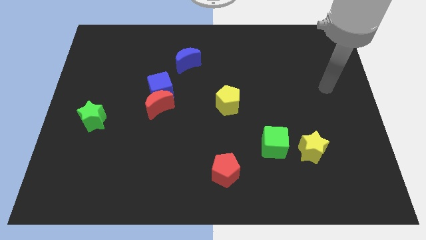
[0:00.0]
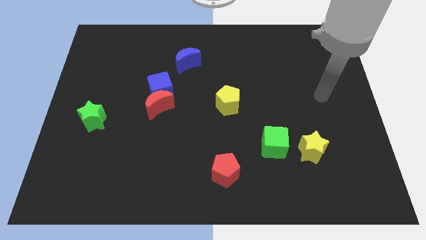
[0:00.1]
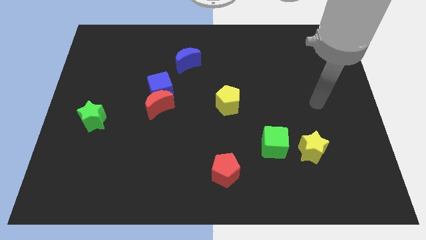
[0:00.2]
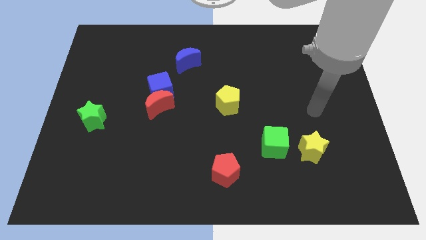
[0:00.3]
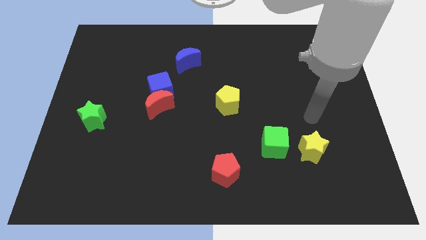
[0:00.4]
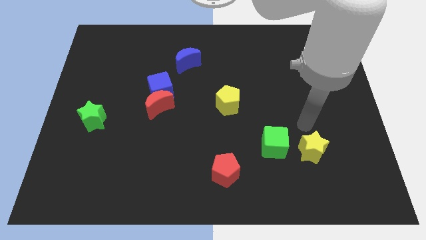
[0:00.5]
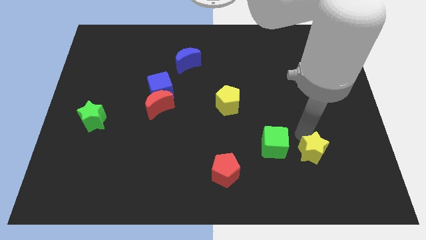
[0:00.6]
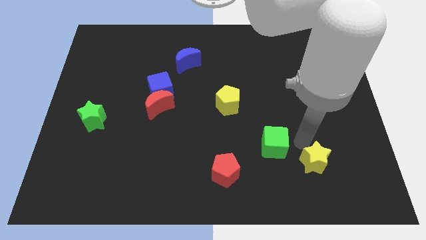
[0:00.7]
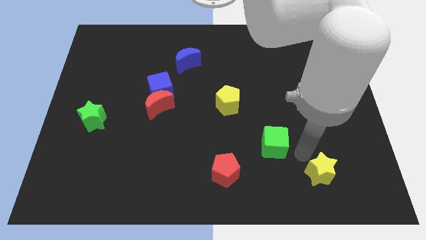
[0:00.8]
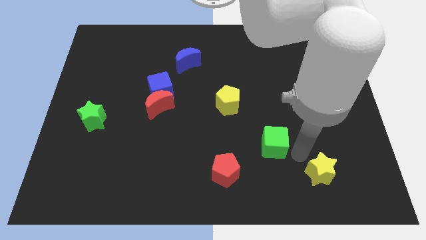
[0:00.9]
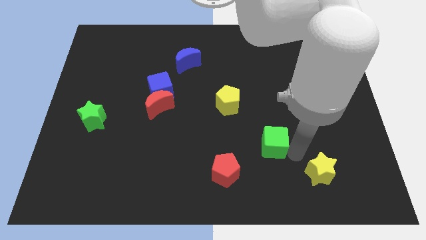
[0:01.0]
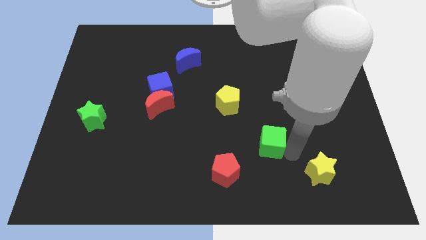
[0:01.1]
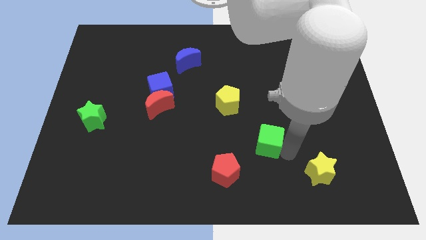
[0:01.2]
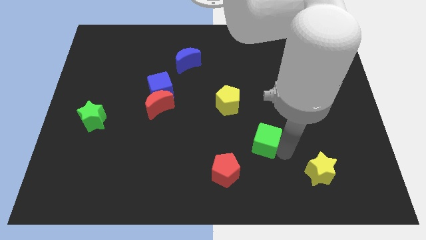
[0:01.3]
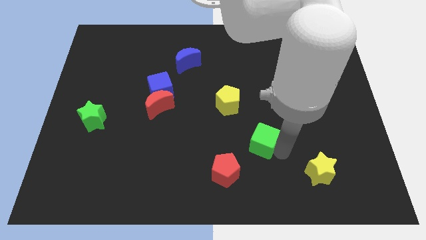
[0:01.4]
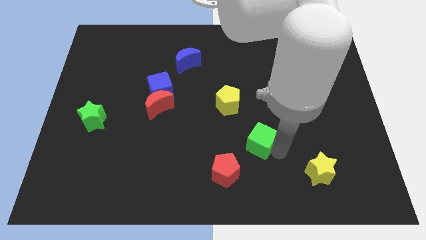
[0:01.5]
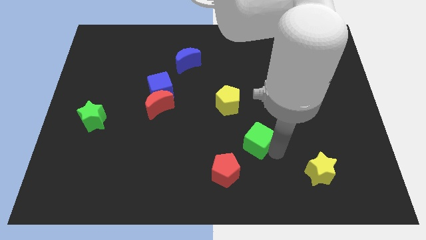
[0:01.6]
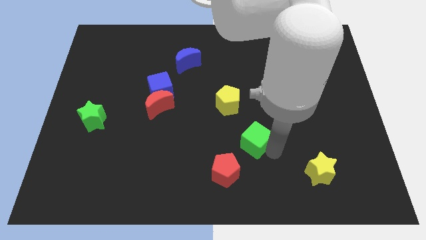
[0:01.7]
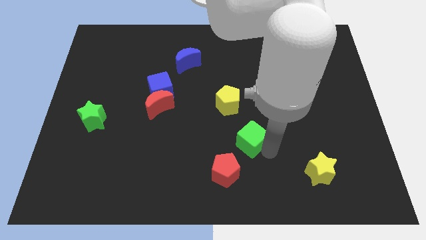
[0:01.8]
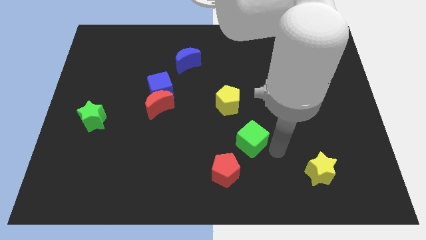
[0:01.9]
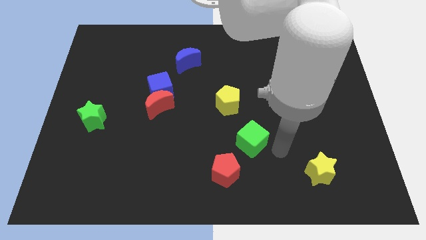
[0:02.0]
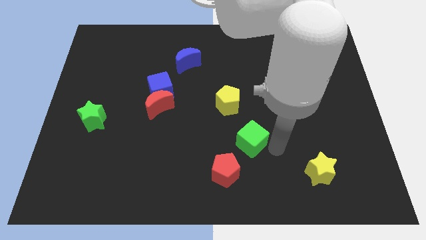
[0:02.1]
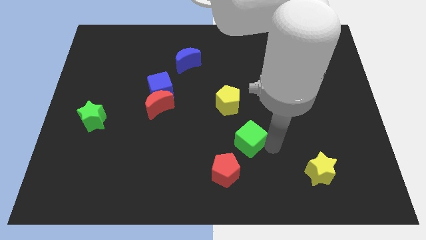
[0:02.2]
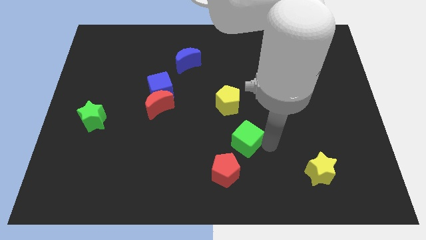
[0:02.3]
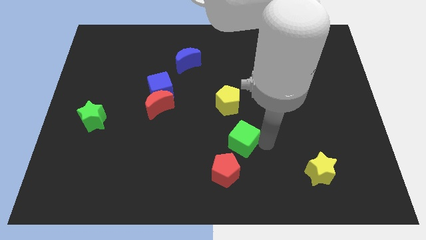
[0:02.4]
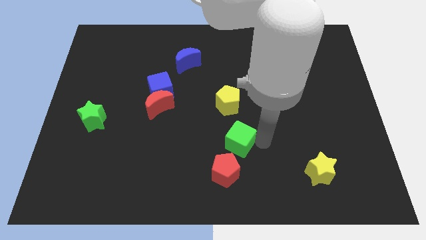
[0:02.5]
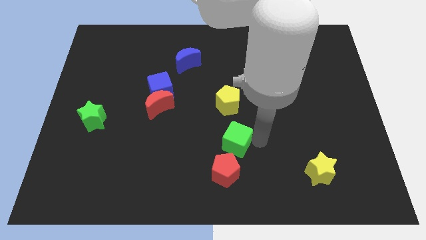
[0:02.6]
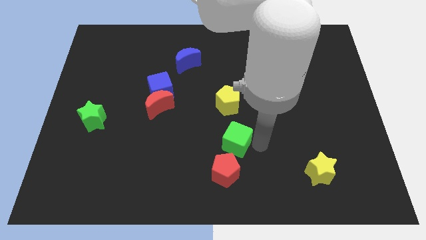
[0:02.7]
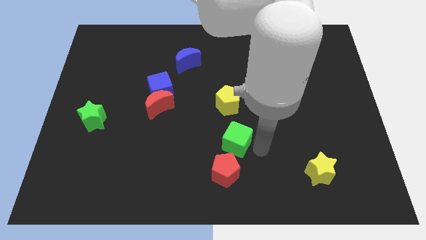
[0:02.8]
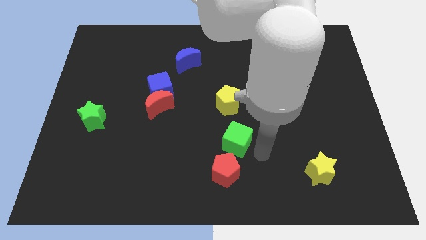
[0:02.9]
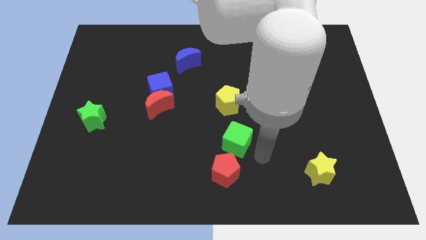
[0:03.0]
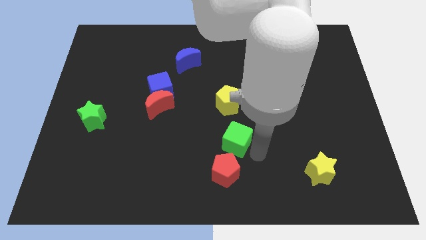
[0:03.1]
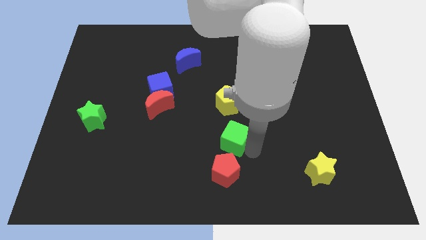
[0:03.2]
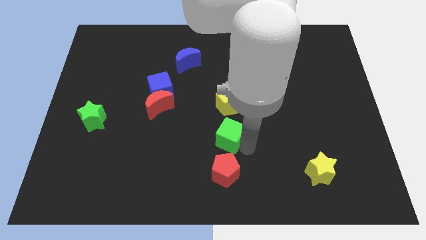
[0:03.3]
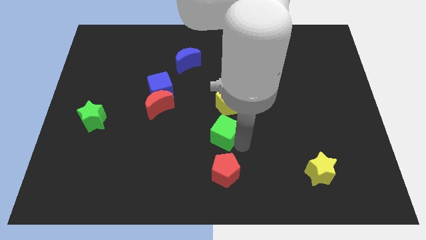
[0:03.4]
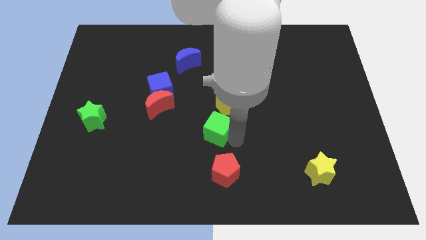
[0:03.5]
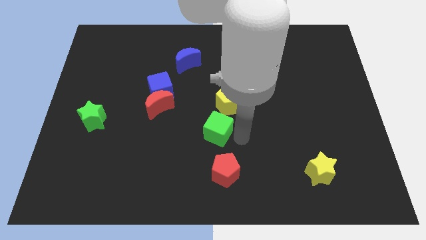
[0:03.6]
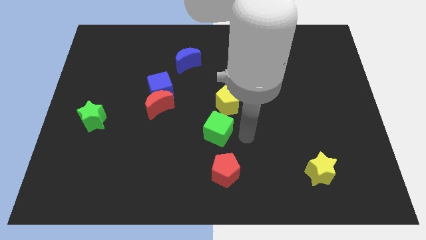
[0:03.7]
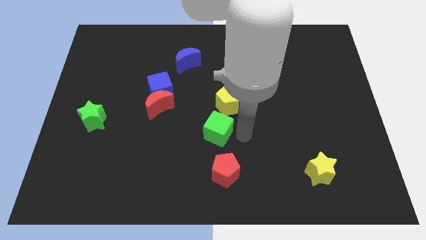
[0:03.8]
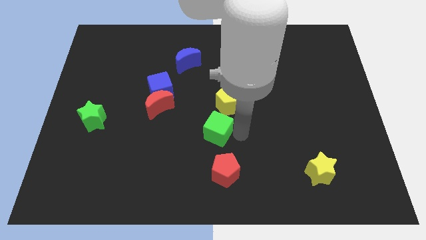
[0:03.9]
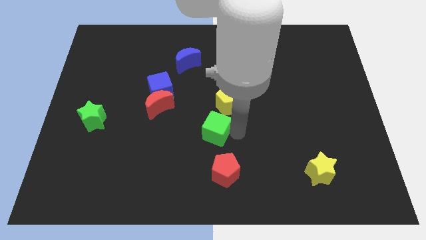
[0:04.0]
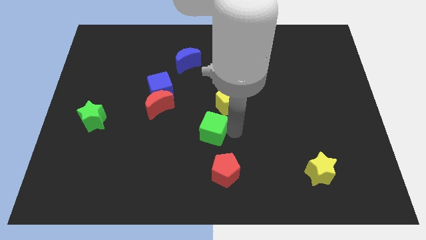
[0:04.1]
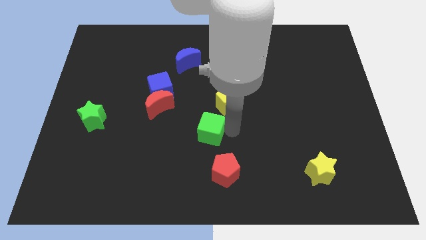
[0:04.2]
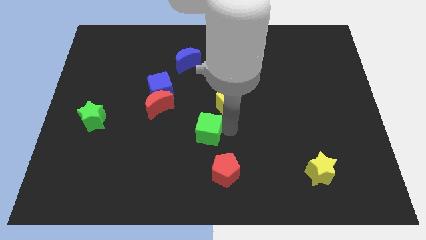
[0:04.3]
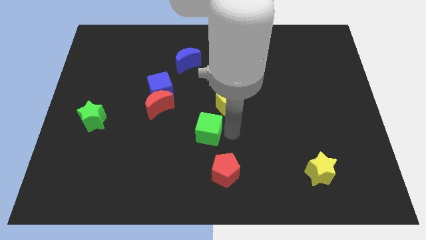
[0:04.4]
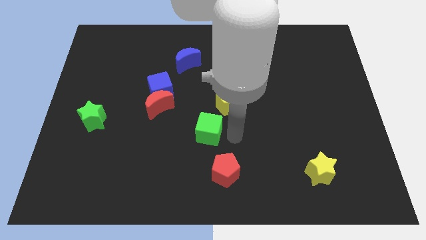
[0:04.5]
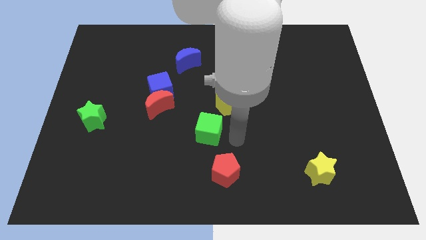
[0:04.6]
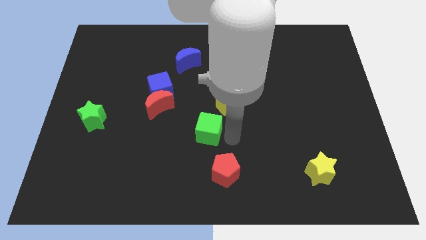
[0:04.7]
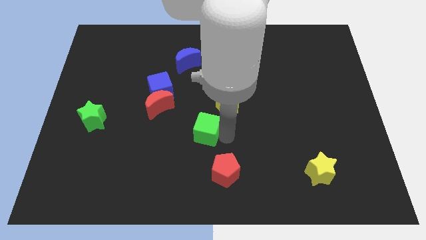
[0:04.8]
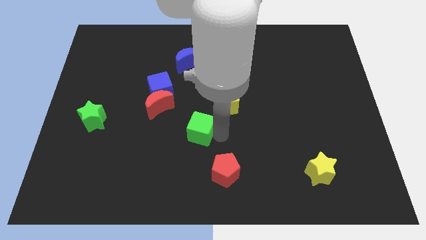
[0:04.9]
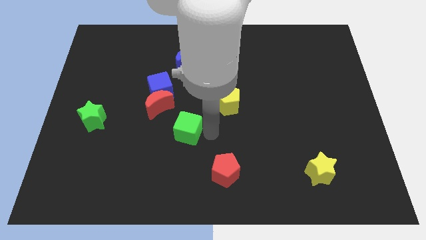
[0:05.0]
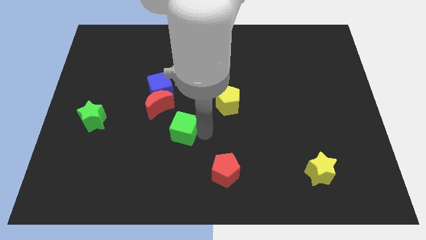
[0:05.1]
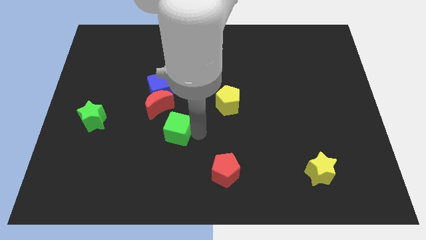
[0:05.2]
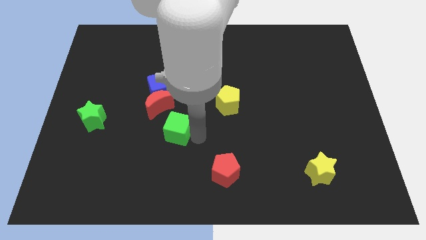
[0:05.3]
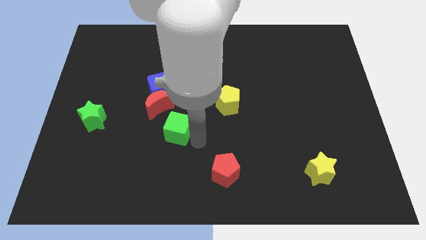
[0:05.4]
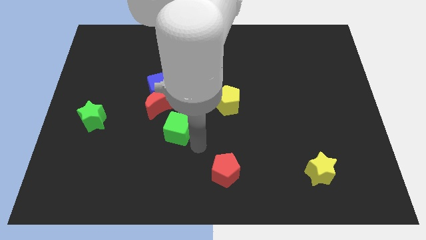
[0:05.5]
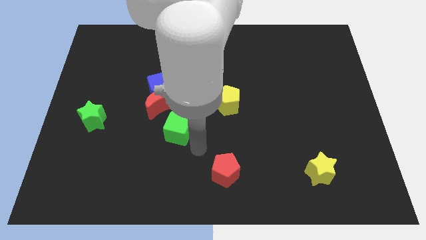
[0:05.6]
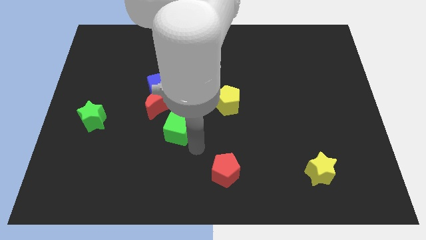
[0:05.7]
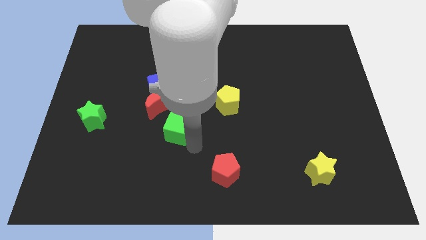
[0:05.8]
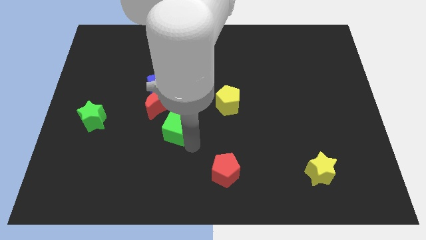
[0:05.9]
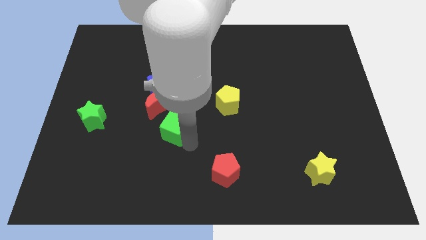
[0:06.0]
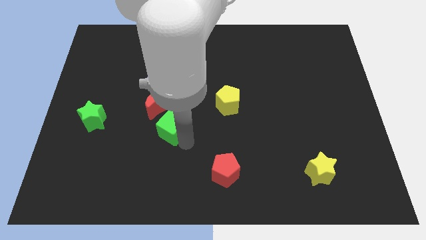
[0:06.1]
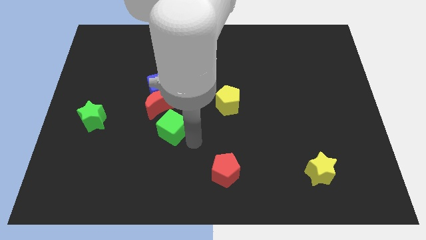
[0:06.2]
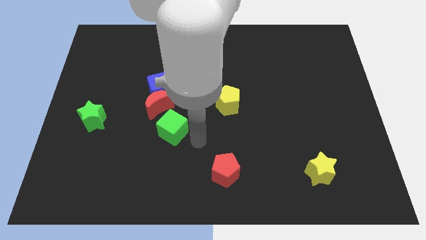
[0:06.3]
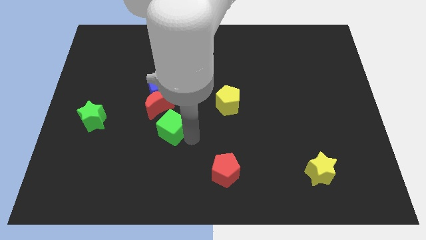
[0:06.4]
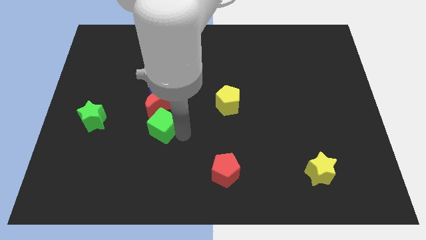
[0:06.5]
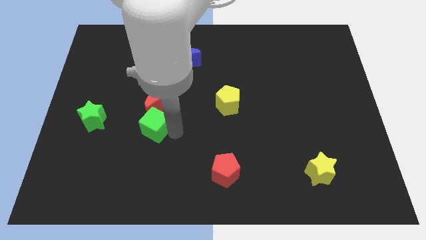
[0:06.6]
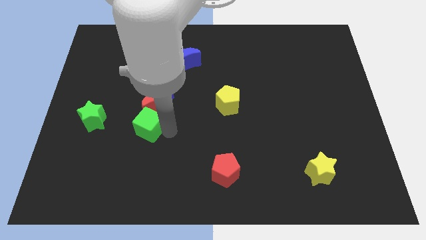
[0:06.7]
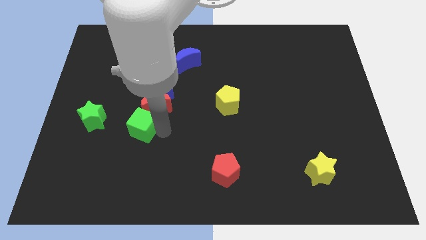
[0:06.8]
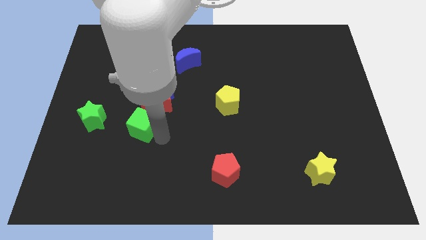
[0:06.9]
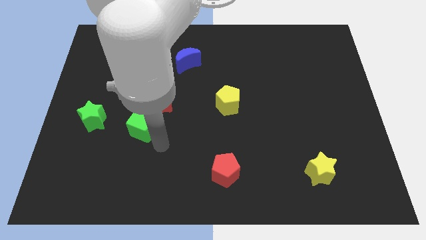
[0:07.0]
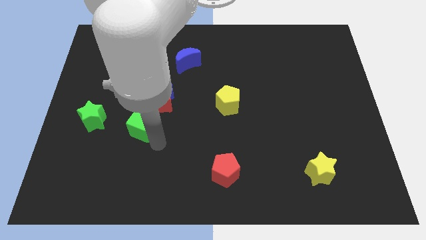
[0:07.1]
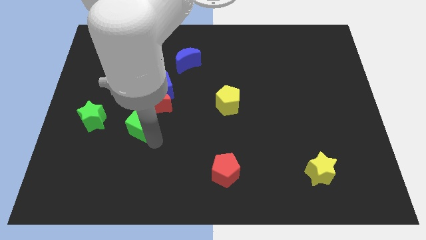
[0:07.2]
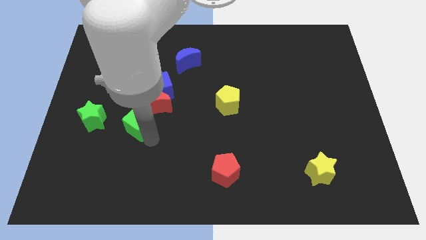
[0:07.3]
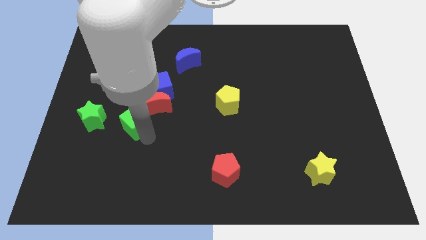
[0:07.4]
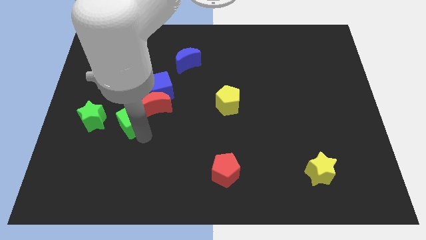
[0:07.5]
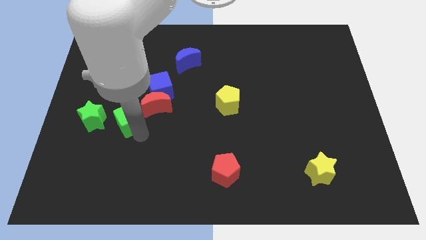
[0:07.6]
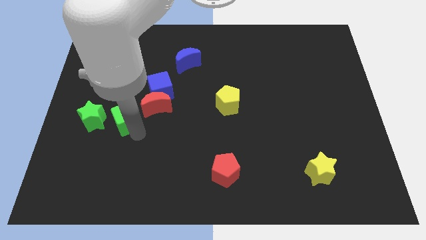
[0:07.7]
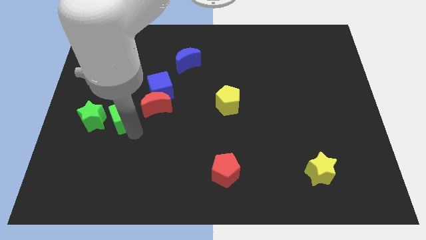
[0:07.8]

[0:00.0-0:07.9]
slide the green cube to the top right of the green star
